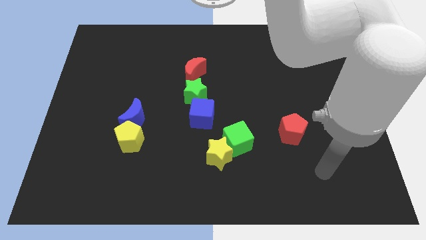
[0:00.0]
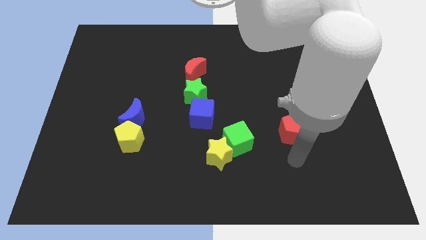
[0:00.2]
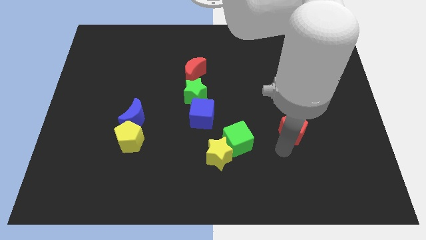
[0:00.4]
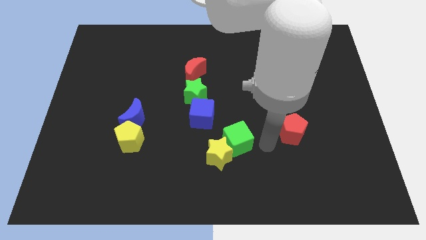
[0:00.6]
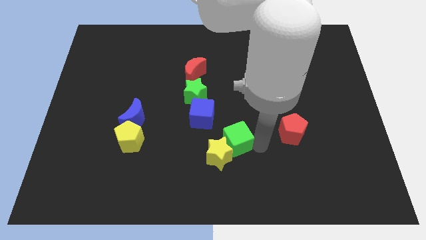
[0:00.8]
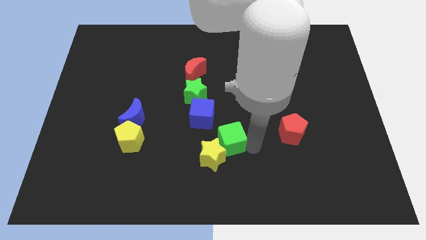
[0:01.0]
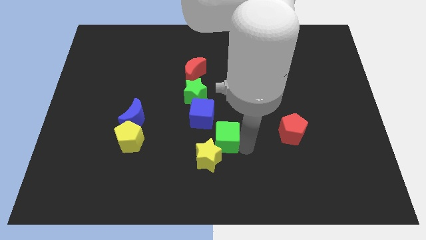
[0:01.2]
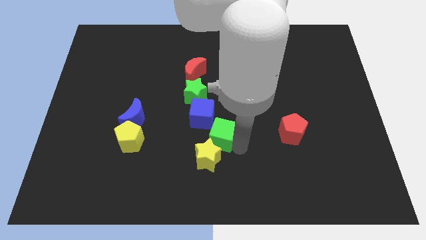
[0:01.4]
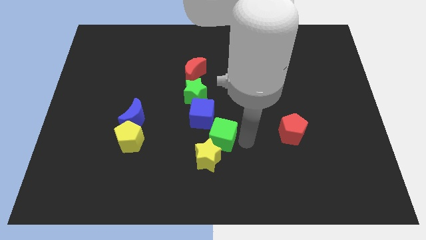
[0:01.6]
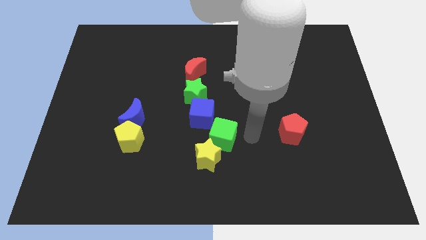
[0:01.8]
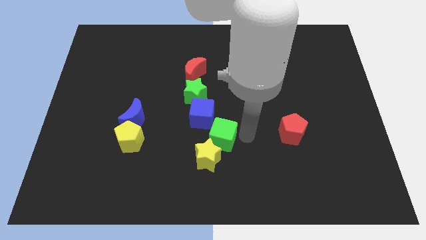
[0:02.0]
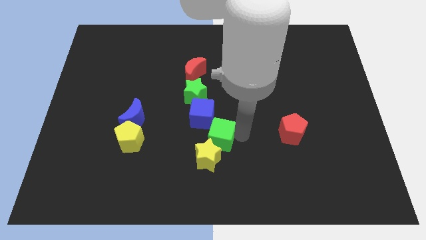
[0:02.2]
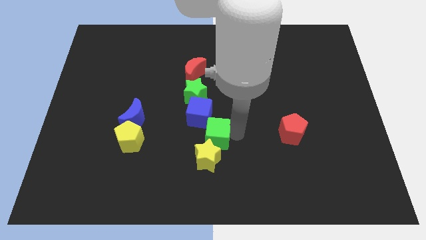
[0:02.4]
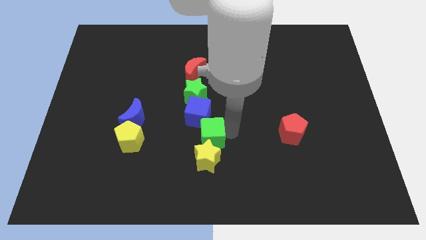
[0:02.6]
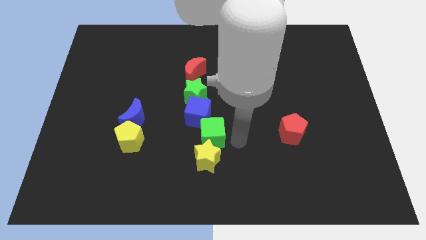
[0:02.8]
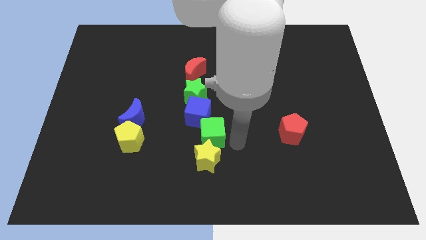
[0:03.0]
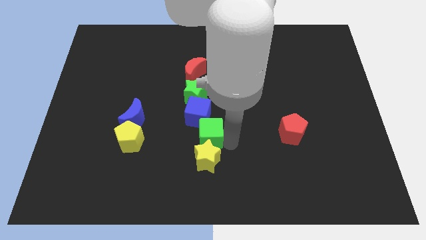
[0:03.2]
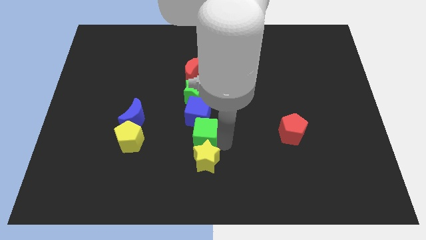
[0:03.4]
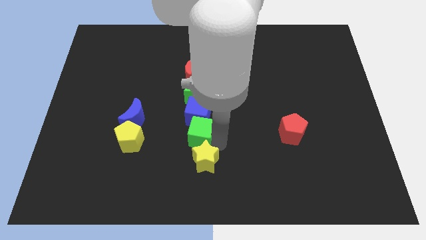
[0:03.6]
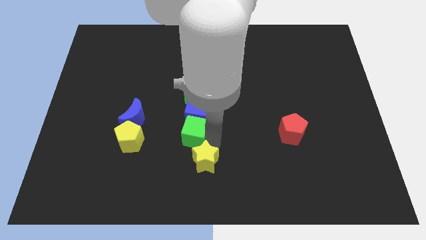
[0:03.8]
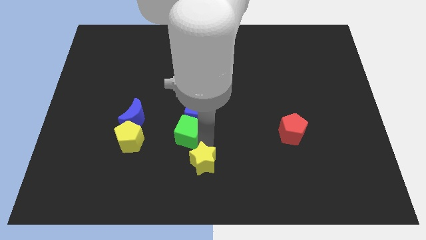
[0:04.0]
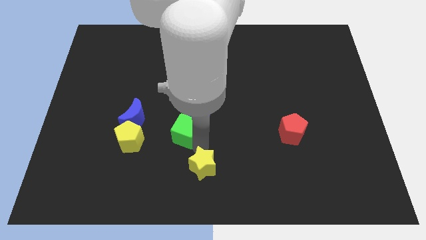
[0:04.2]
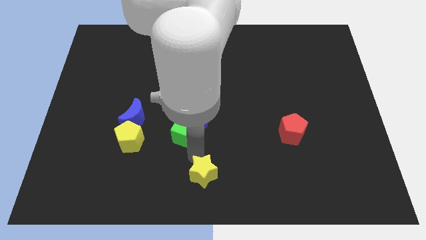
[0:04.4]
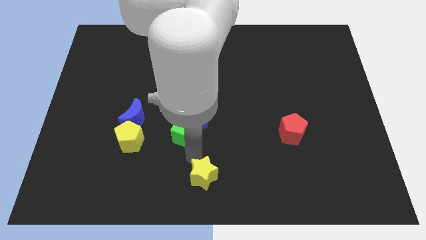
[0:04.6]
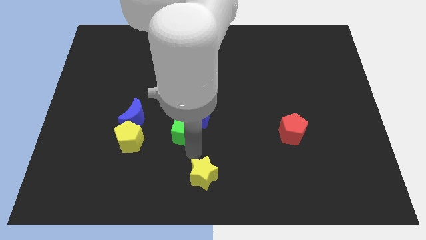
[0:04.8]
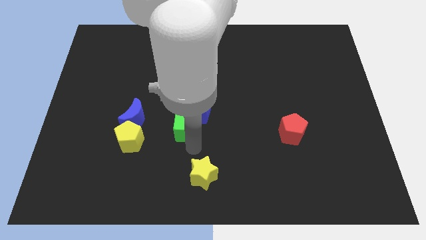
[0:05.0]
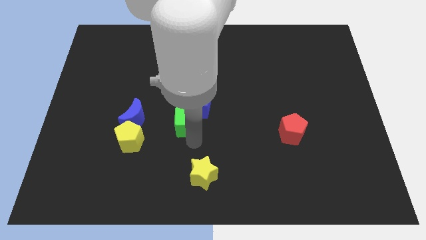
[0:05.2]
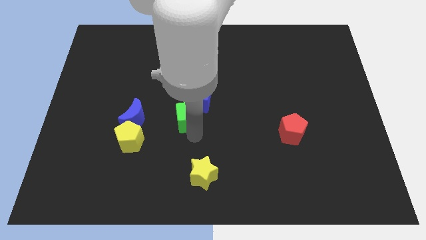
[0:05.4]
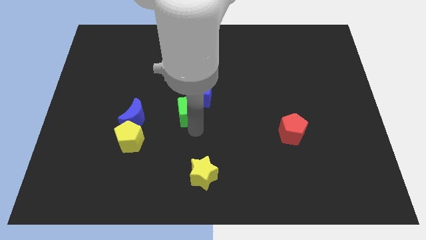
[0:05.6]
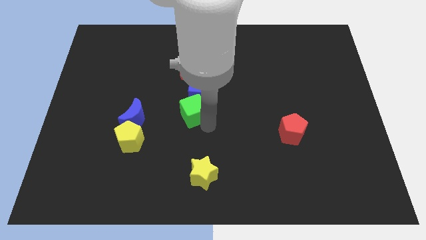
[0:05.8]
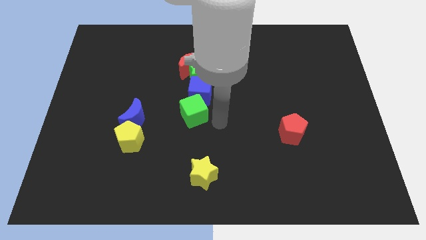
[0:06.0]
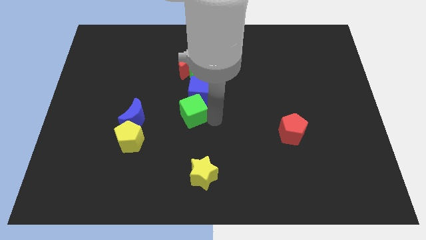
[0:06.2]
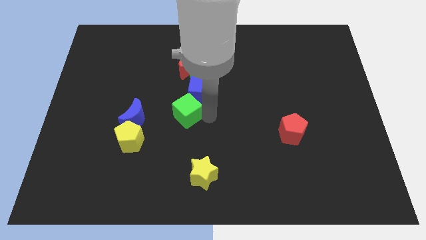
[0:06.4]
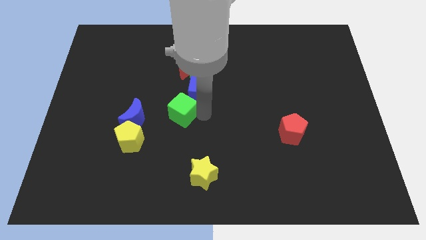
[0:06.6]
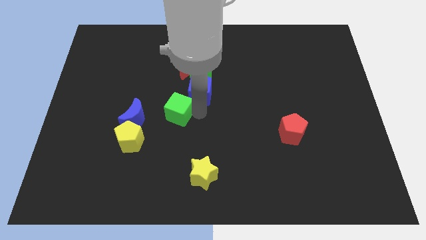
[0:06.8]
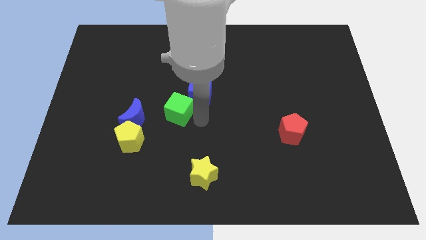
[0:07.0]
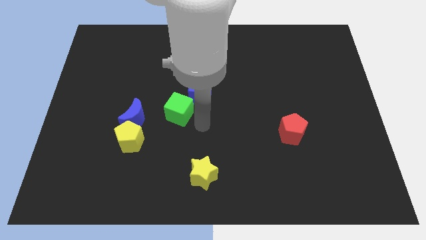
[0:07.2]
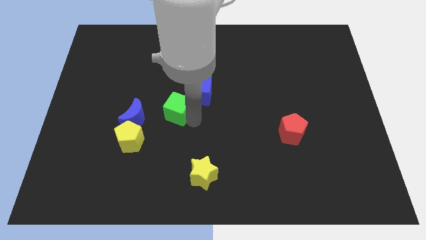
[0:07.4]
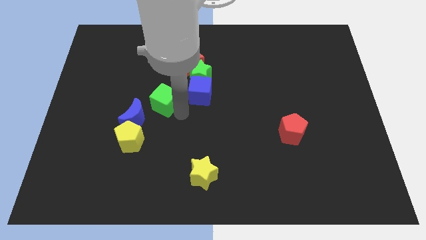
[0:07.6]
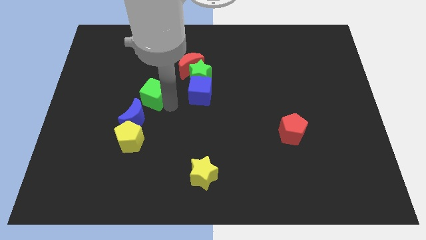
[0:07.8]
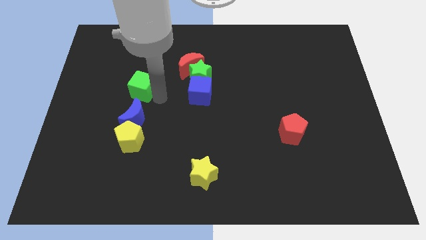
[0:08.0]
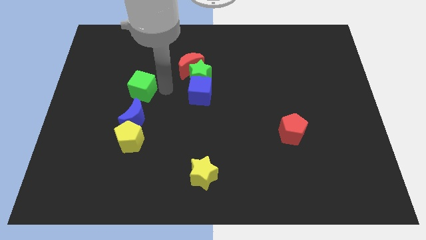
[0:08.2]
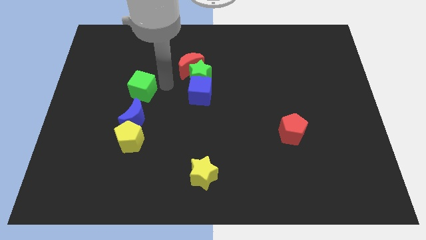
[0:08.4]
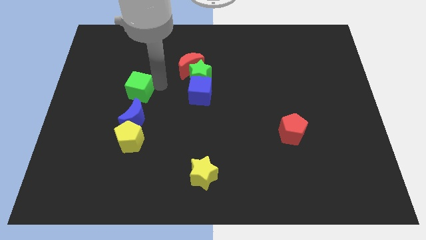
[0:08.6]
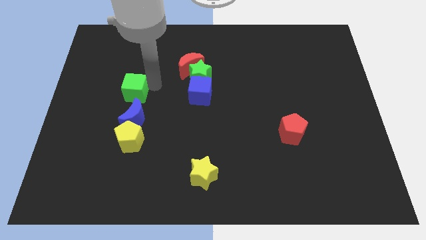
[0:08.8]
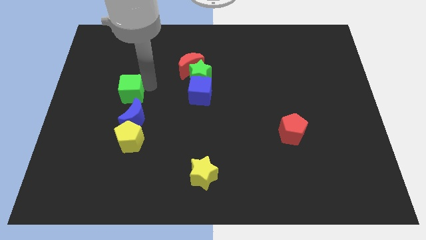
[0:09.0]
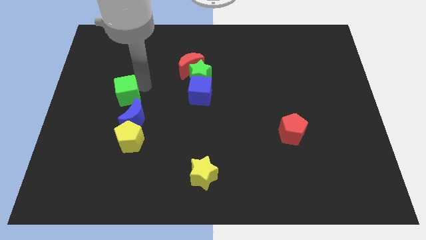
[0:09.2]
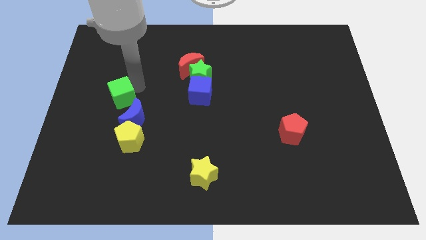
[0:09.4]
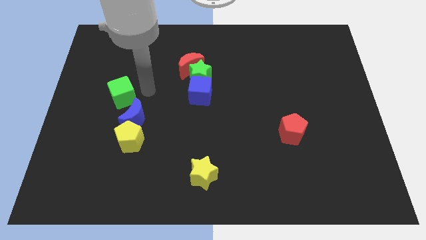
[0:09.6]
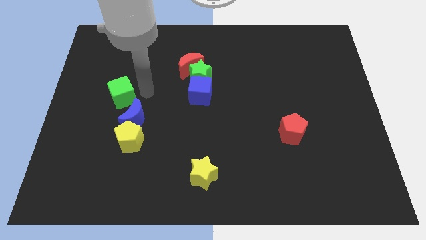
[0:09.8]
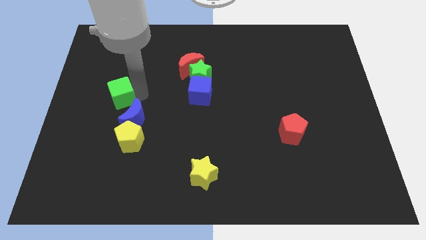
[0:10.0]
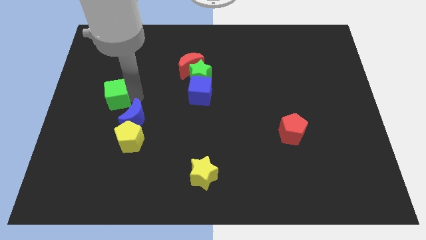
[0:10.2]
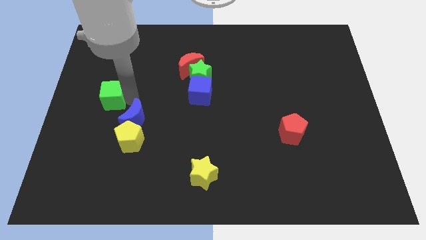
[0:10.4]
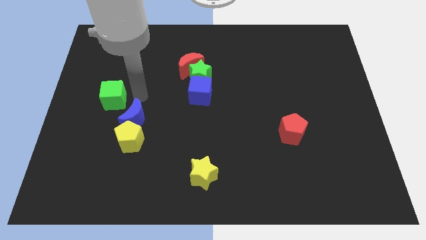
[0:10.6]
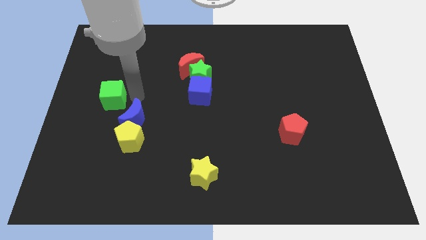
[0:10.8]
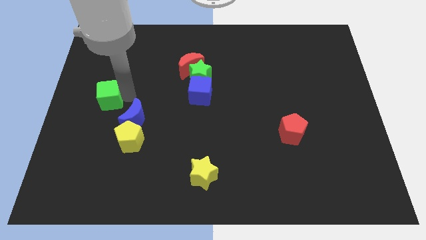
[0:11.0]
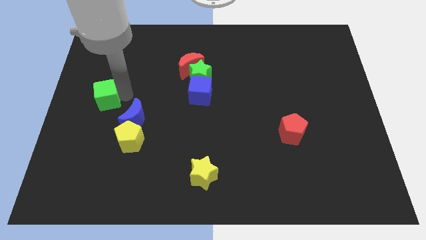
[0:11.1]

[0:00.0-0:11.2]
put the green cube to the left side of the board
